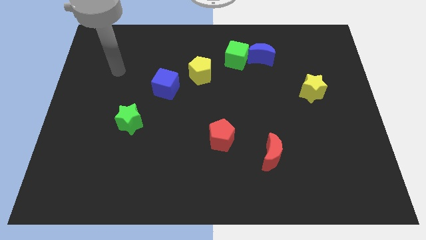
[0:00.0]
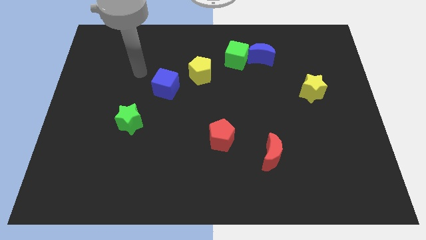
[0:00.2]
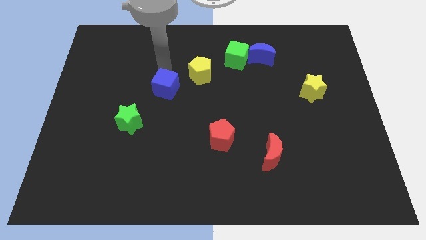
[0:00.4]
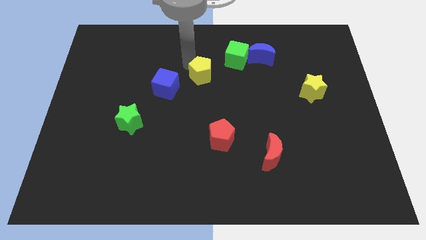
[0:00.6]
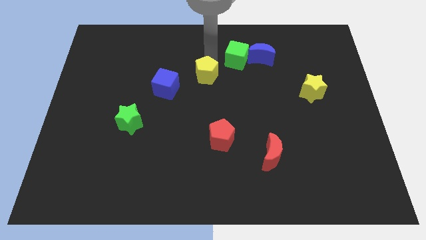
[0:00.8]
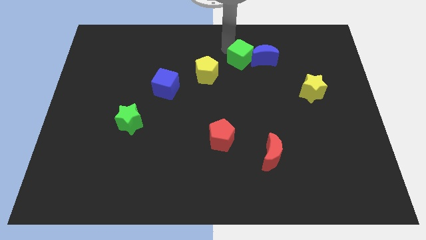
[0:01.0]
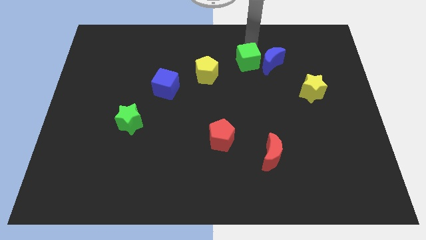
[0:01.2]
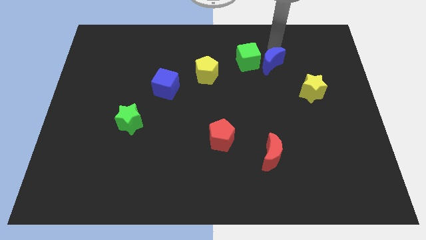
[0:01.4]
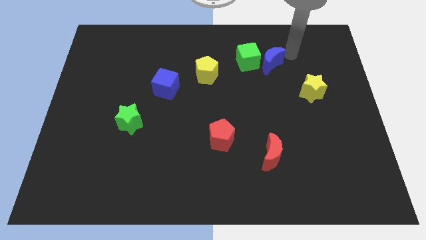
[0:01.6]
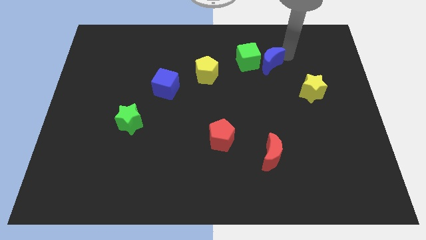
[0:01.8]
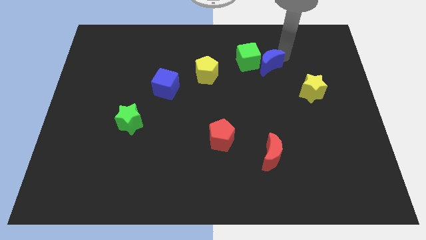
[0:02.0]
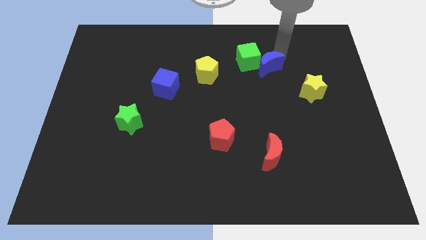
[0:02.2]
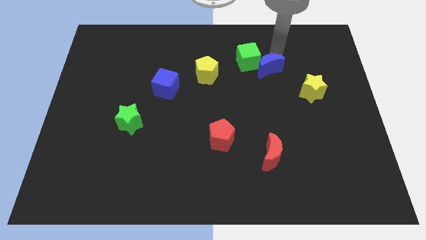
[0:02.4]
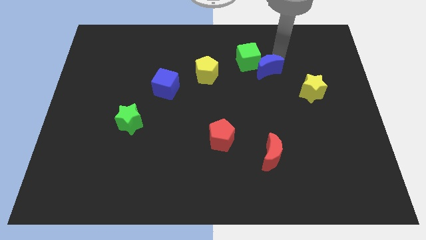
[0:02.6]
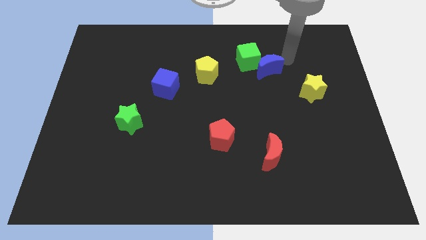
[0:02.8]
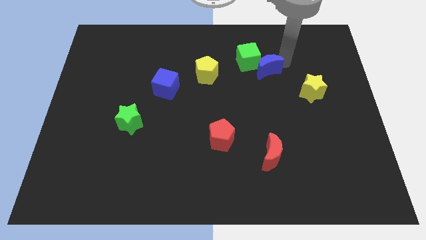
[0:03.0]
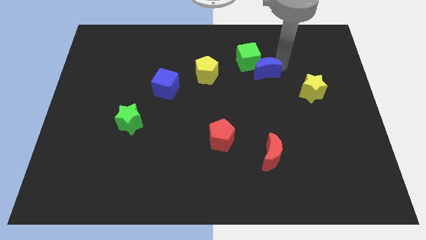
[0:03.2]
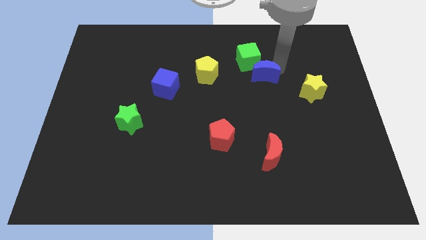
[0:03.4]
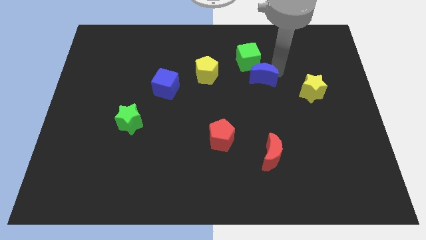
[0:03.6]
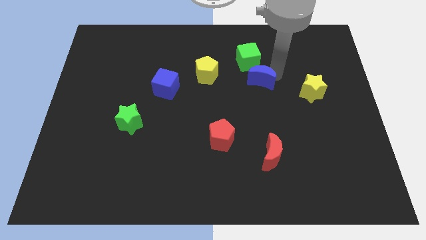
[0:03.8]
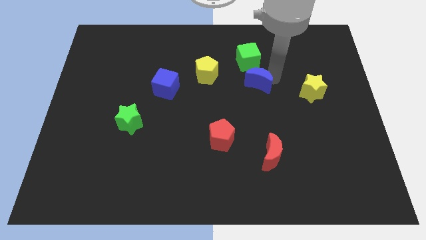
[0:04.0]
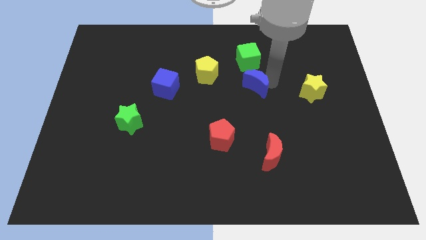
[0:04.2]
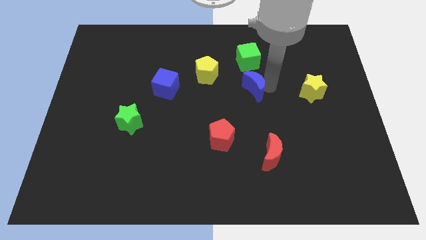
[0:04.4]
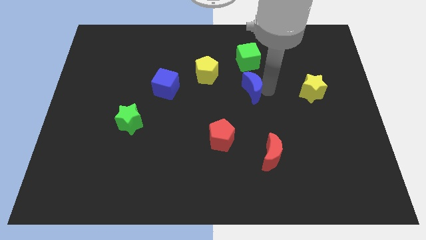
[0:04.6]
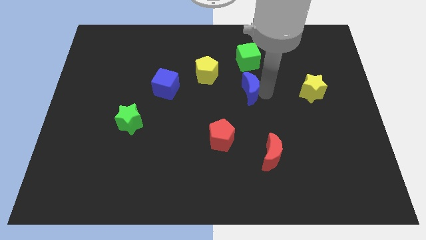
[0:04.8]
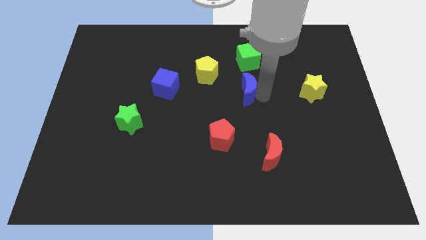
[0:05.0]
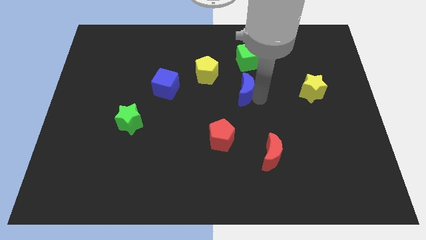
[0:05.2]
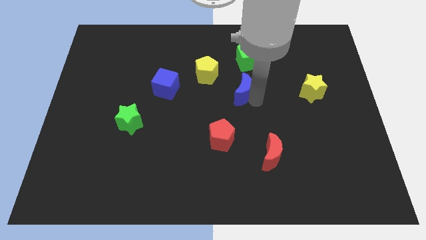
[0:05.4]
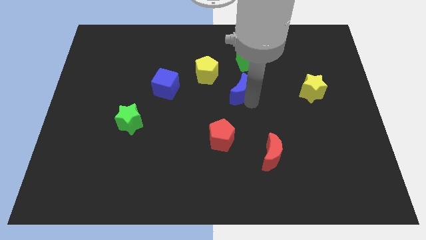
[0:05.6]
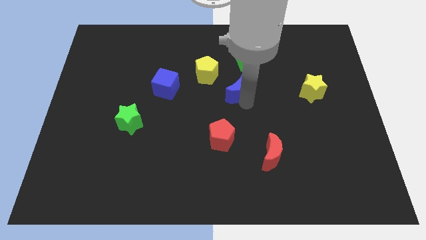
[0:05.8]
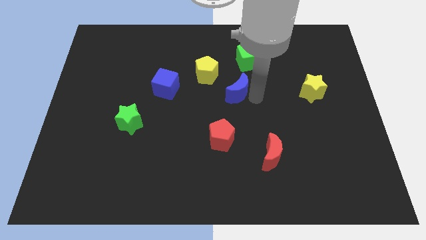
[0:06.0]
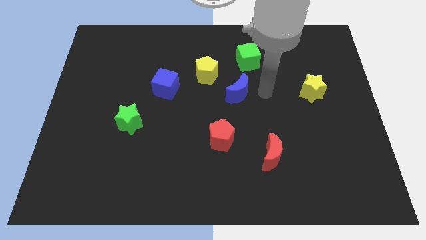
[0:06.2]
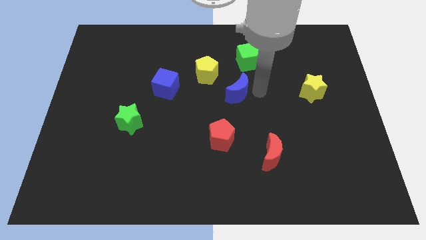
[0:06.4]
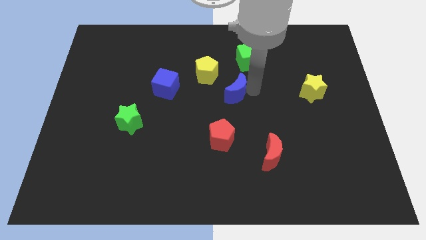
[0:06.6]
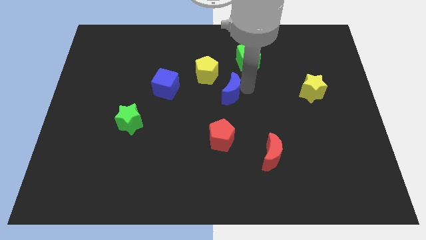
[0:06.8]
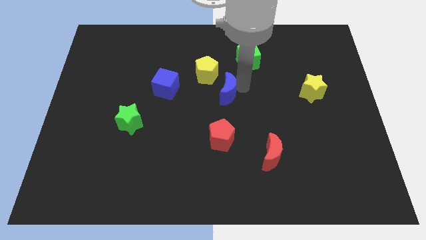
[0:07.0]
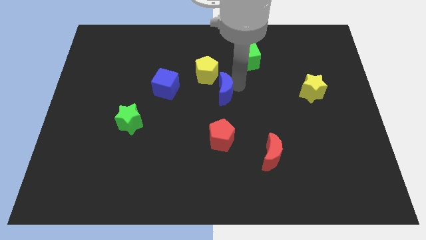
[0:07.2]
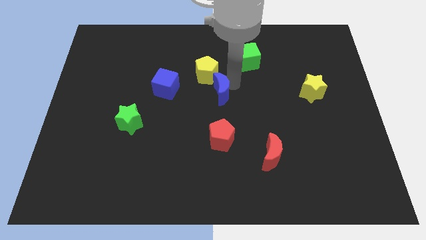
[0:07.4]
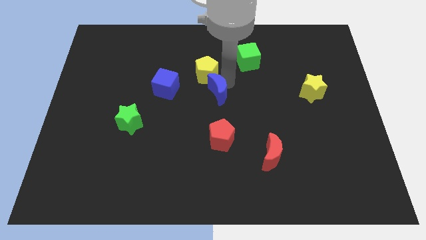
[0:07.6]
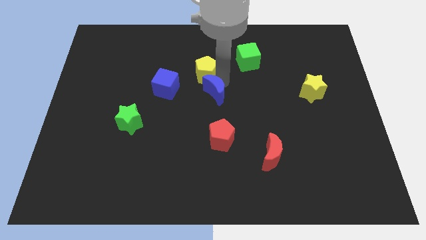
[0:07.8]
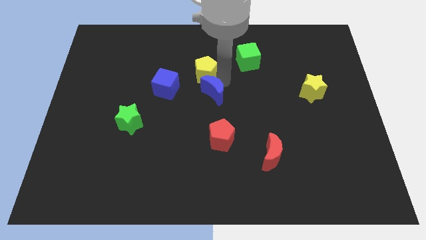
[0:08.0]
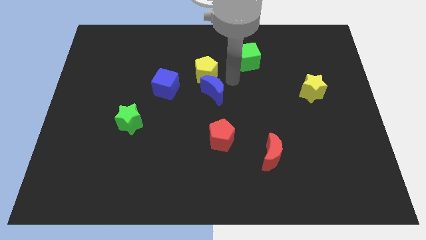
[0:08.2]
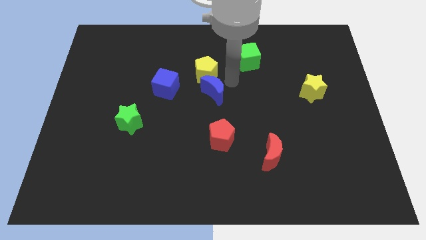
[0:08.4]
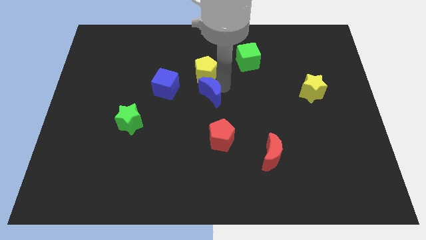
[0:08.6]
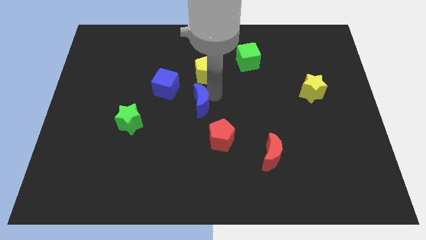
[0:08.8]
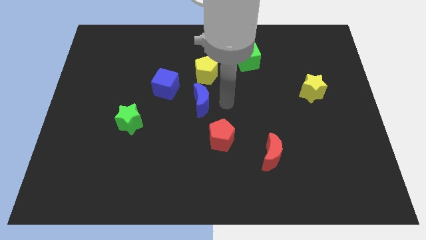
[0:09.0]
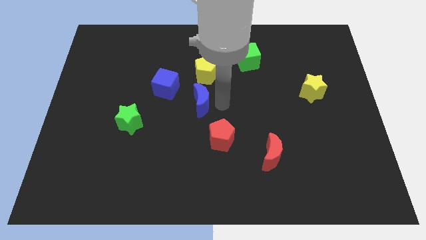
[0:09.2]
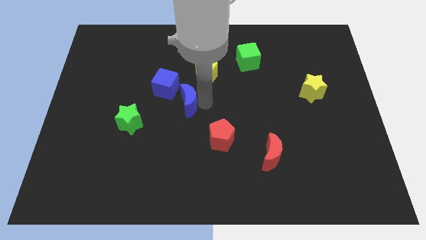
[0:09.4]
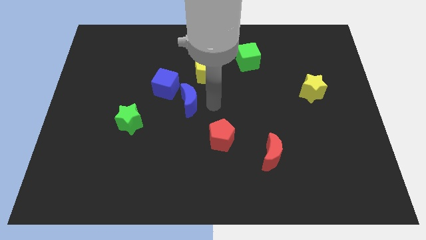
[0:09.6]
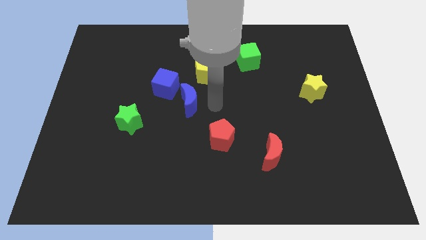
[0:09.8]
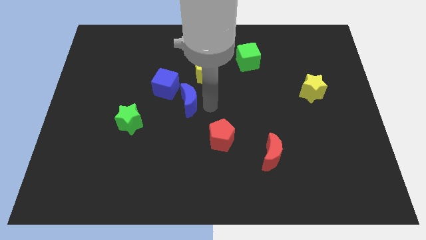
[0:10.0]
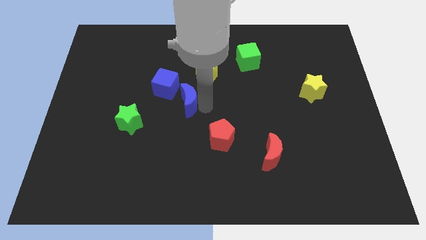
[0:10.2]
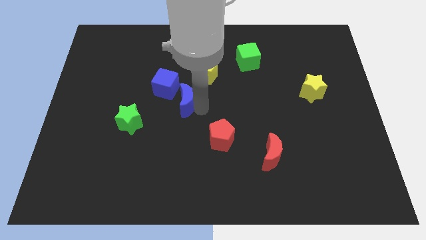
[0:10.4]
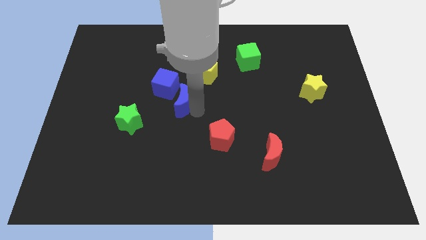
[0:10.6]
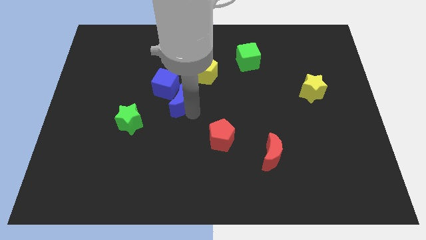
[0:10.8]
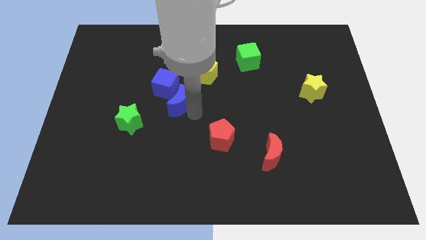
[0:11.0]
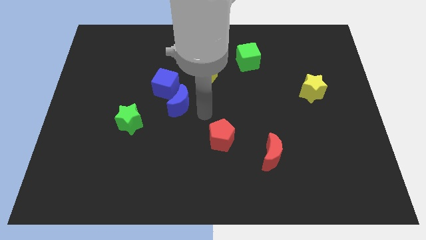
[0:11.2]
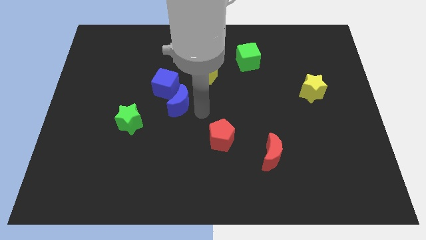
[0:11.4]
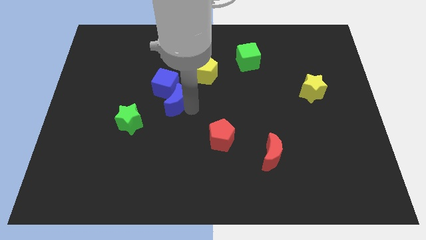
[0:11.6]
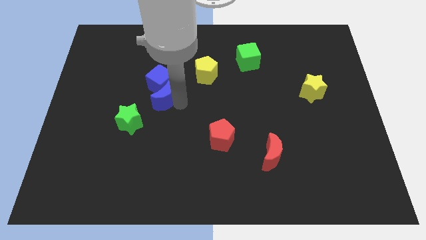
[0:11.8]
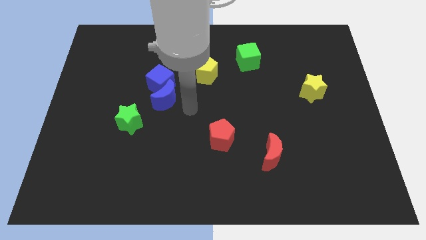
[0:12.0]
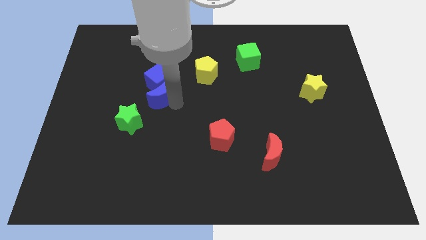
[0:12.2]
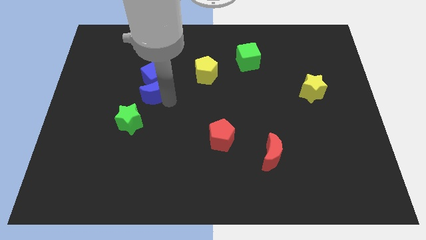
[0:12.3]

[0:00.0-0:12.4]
put the blue moon above the green star

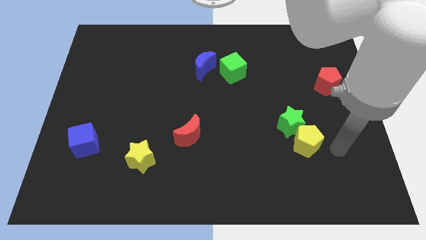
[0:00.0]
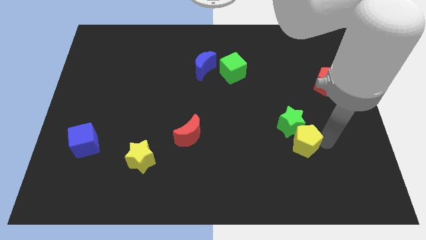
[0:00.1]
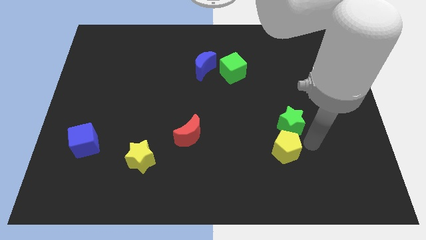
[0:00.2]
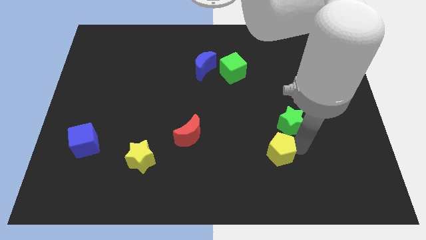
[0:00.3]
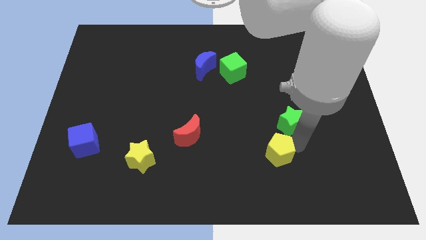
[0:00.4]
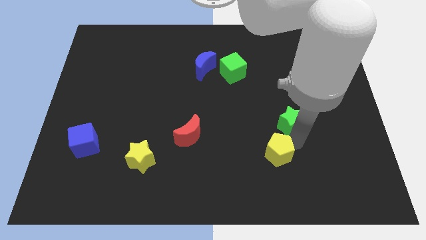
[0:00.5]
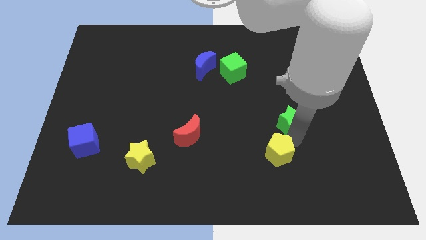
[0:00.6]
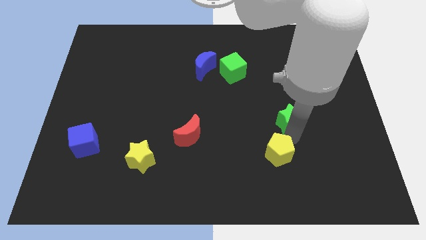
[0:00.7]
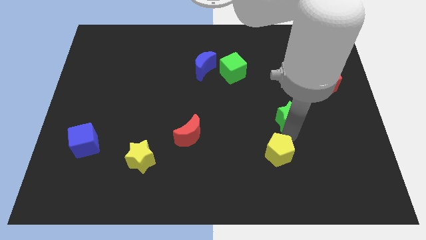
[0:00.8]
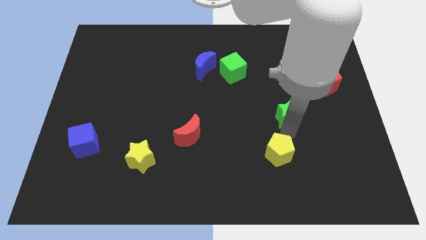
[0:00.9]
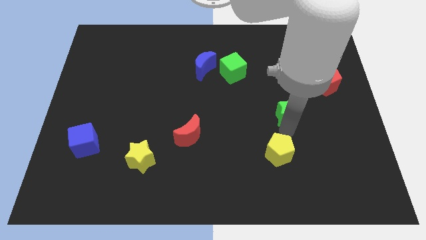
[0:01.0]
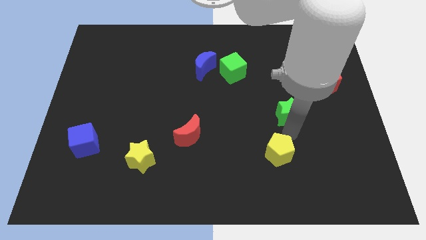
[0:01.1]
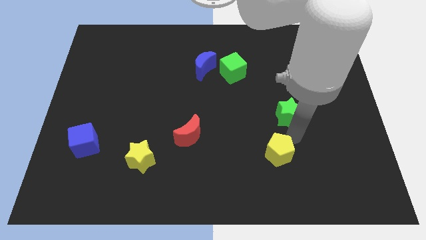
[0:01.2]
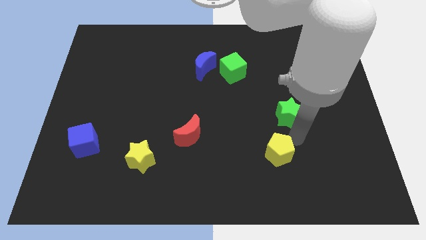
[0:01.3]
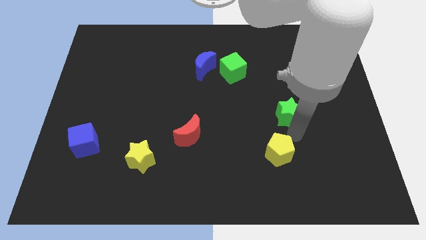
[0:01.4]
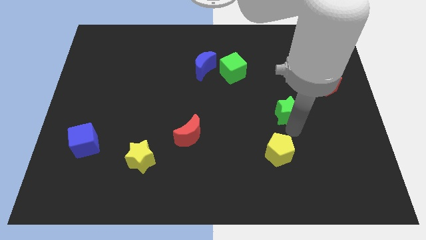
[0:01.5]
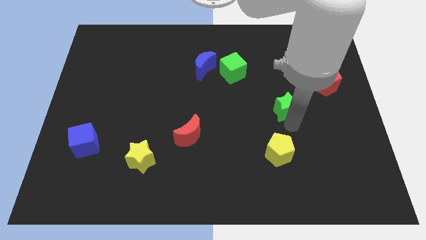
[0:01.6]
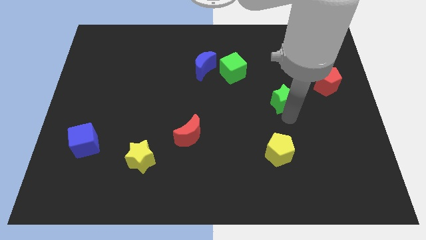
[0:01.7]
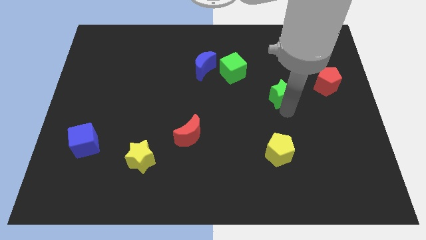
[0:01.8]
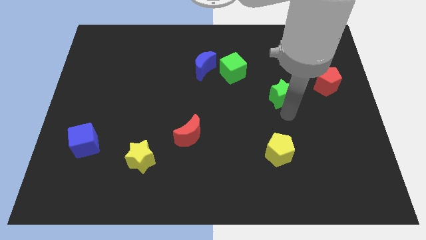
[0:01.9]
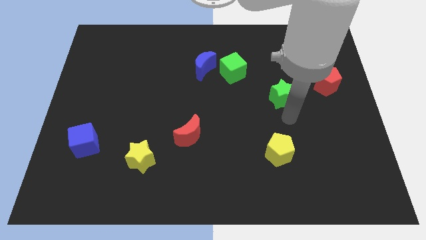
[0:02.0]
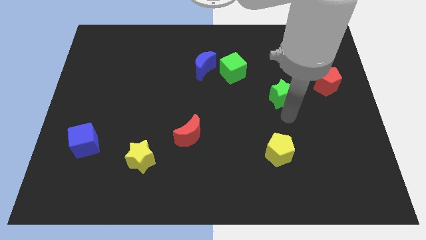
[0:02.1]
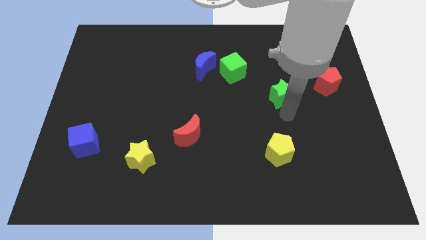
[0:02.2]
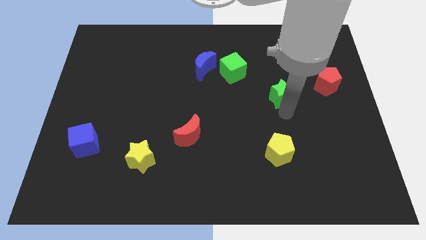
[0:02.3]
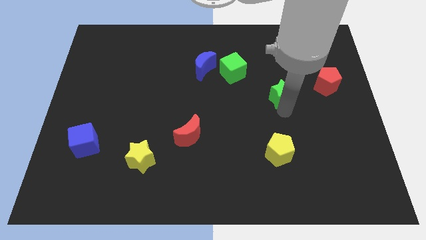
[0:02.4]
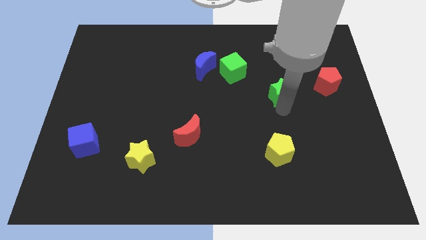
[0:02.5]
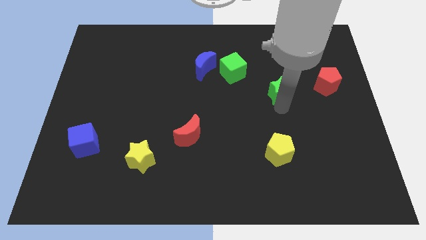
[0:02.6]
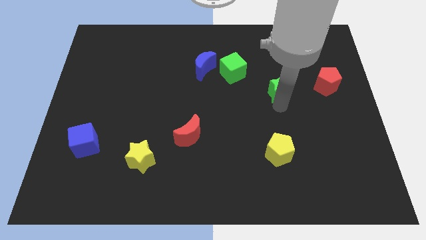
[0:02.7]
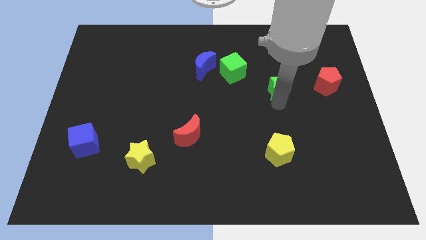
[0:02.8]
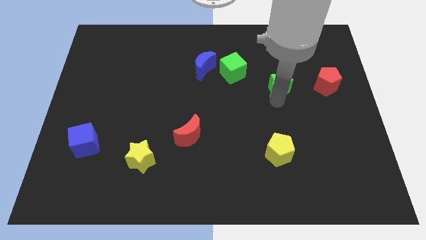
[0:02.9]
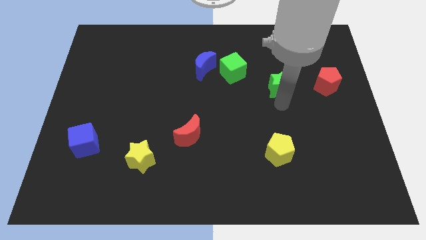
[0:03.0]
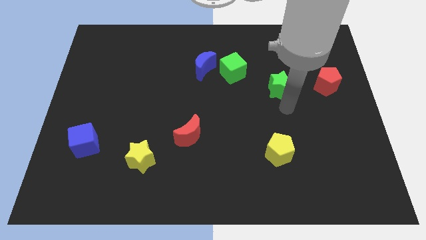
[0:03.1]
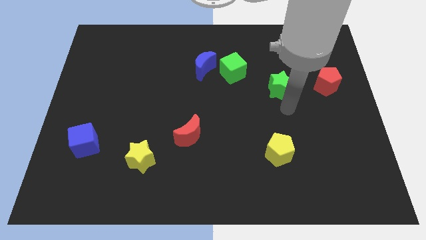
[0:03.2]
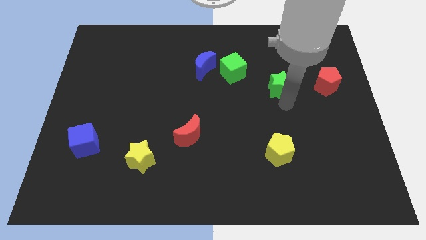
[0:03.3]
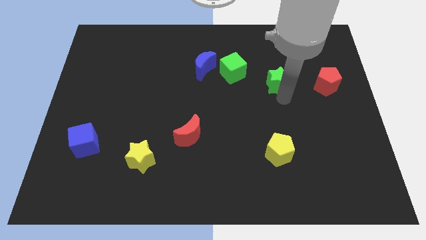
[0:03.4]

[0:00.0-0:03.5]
put the green star to the right side of the green cube
